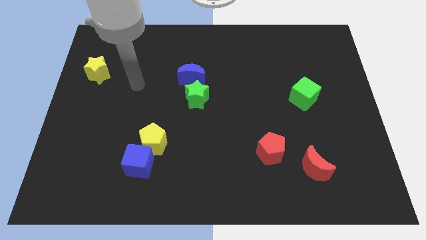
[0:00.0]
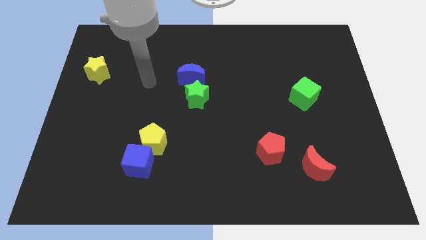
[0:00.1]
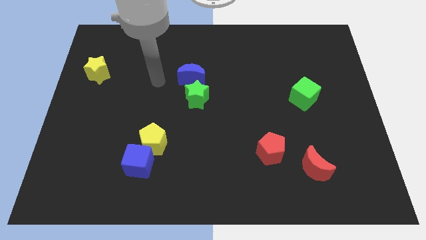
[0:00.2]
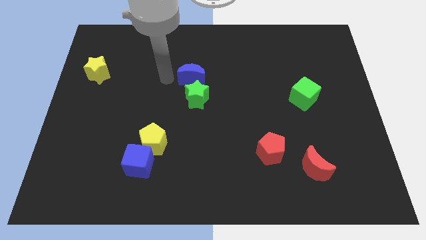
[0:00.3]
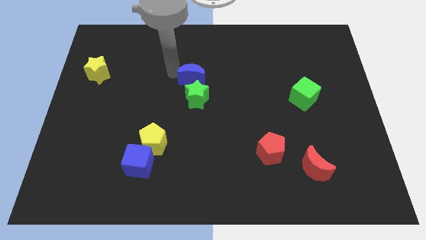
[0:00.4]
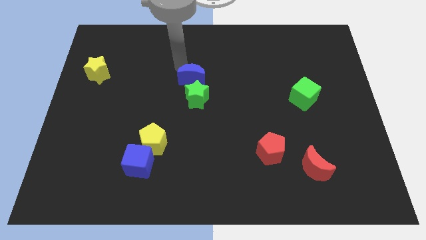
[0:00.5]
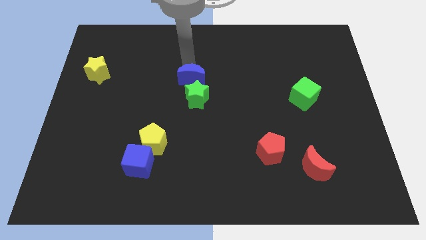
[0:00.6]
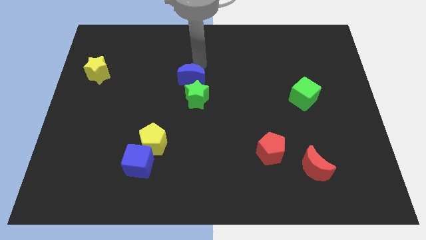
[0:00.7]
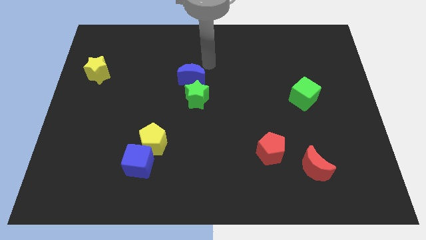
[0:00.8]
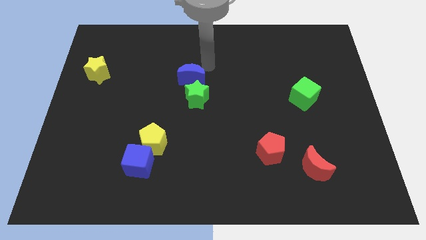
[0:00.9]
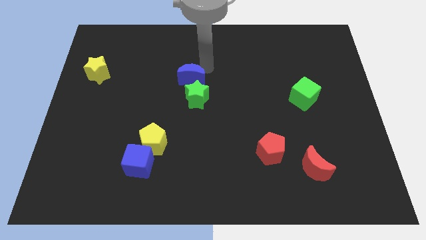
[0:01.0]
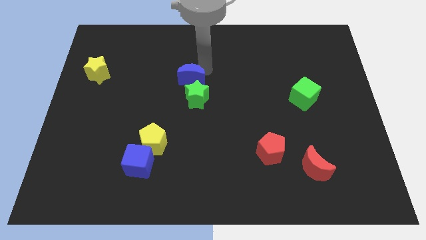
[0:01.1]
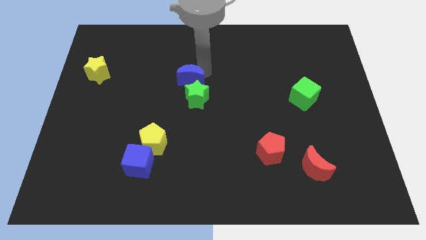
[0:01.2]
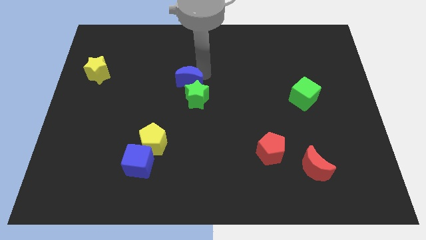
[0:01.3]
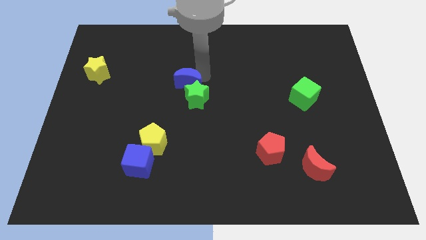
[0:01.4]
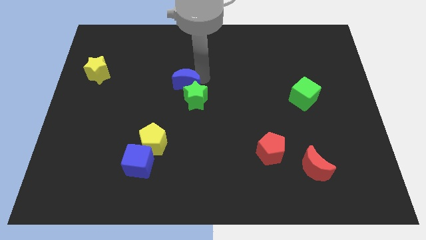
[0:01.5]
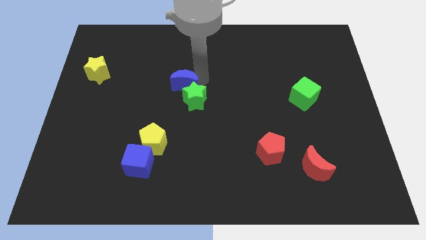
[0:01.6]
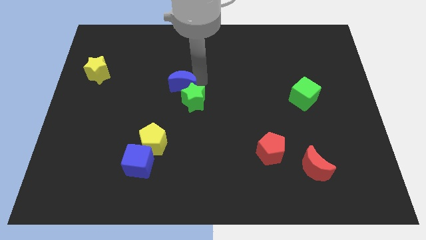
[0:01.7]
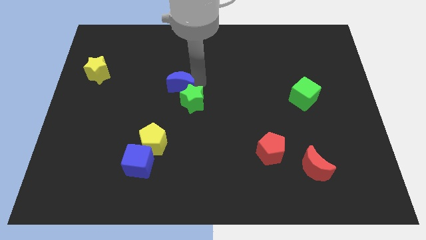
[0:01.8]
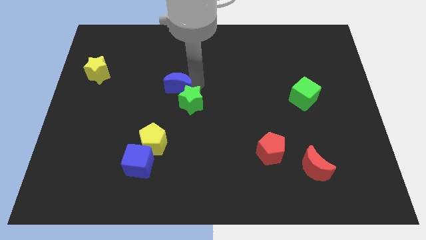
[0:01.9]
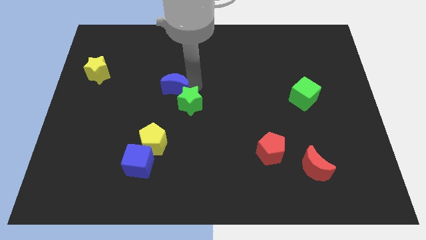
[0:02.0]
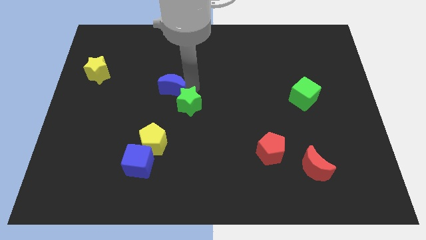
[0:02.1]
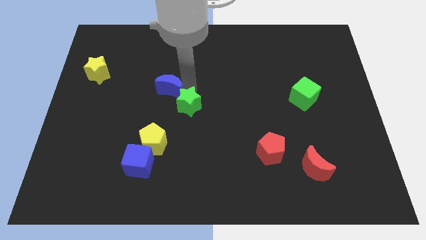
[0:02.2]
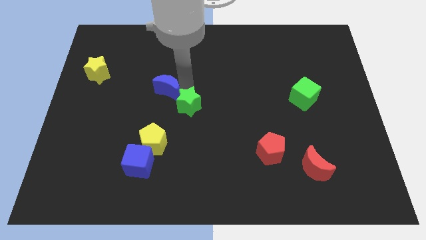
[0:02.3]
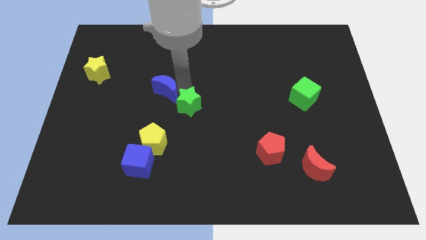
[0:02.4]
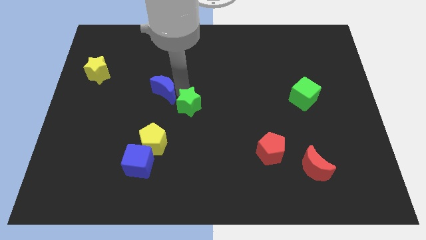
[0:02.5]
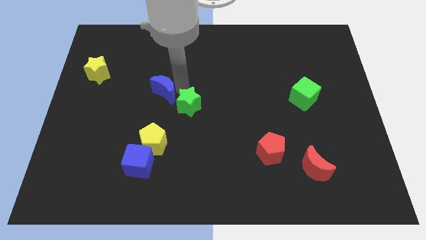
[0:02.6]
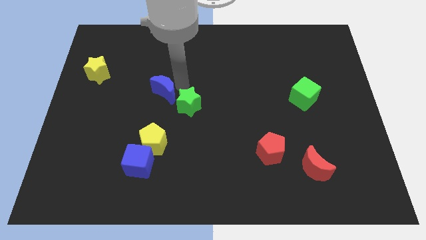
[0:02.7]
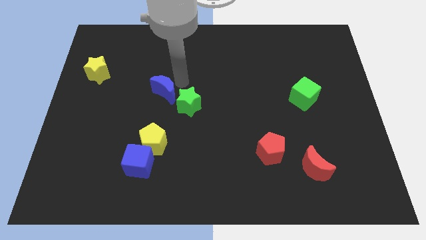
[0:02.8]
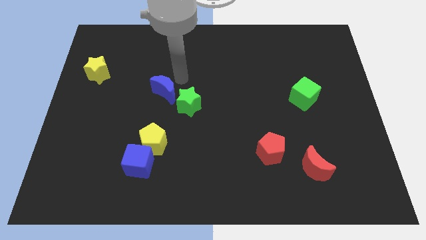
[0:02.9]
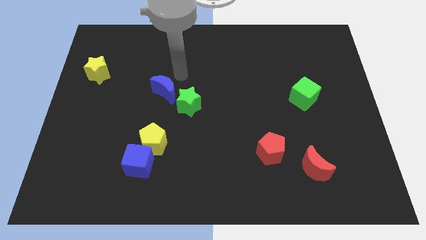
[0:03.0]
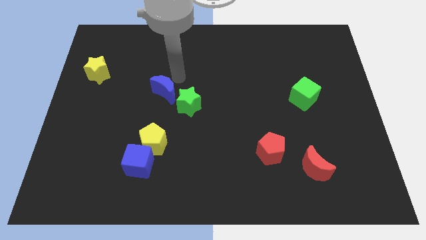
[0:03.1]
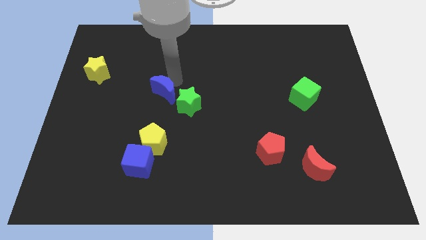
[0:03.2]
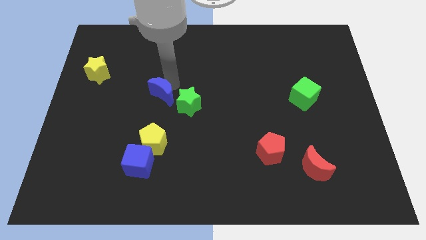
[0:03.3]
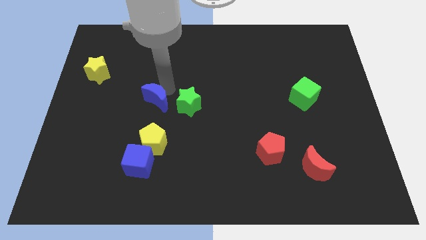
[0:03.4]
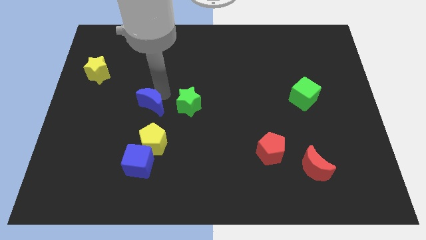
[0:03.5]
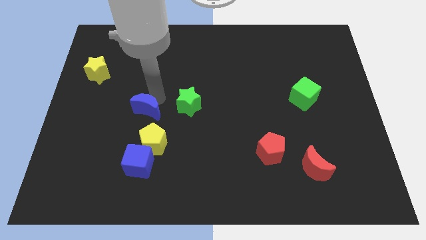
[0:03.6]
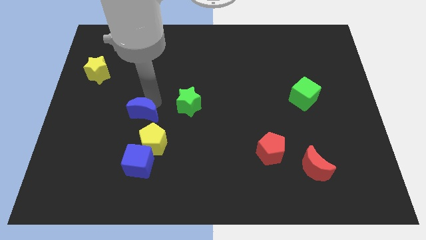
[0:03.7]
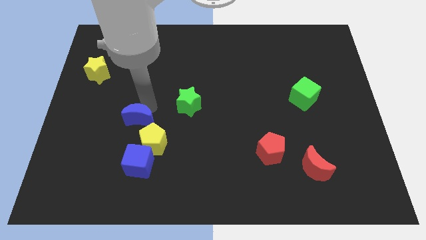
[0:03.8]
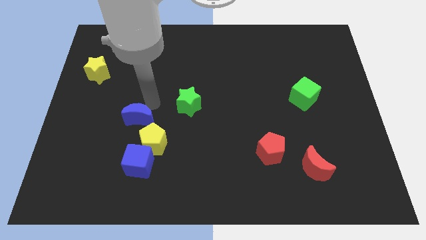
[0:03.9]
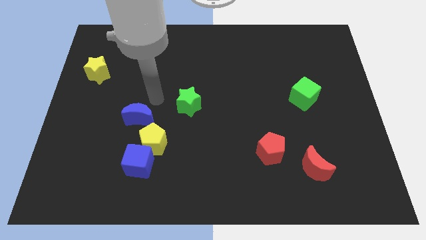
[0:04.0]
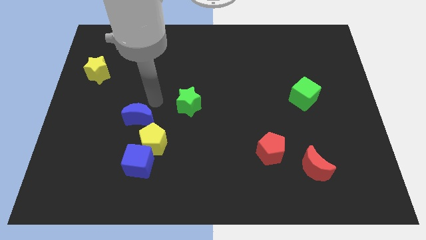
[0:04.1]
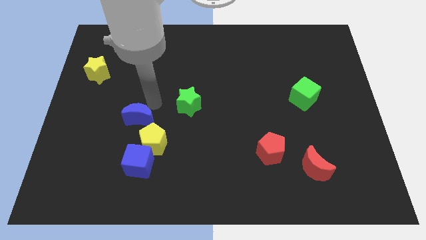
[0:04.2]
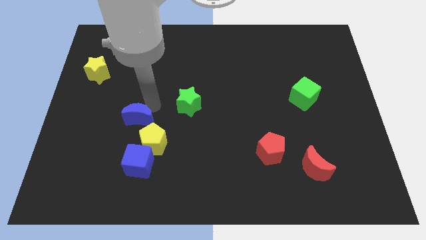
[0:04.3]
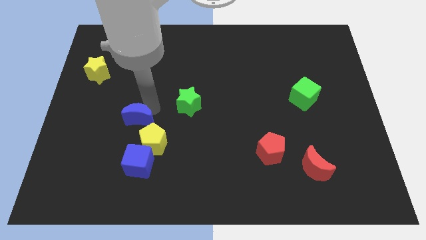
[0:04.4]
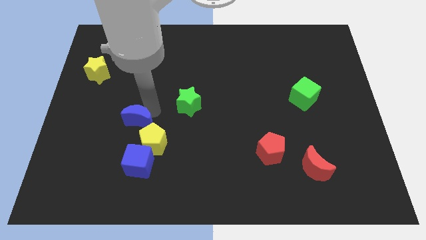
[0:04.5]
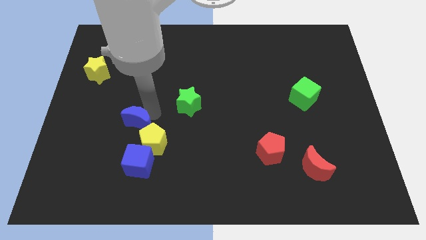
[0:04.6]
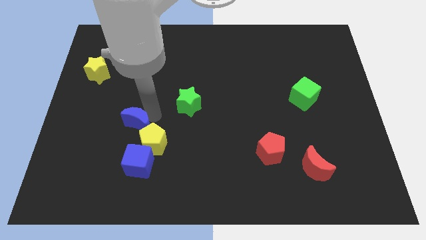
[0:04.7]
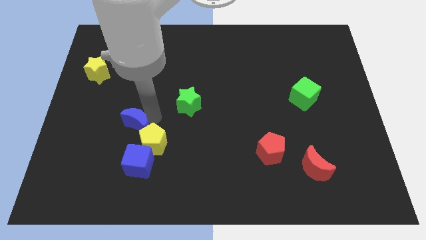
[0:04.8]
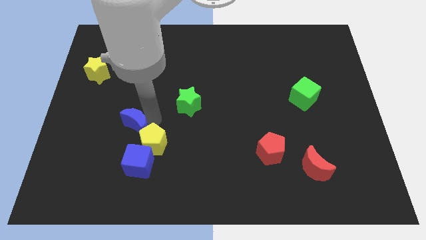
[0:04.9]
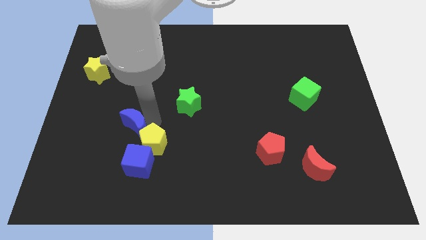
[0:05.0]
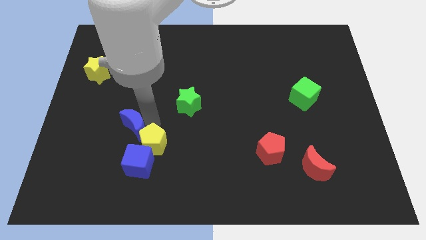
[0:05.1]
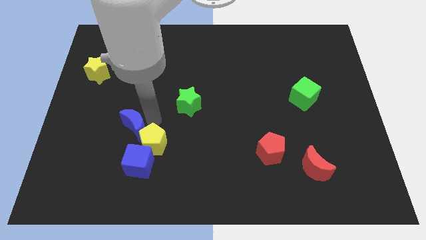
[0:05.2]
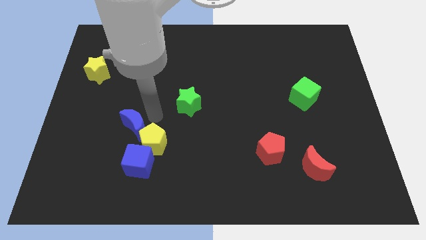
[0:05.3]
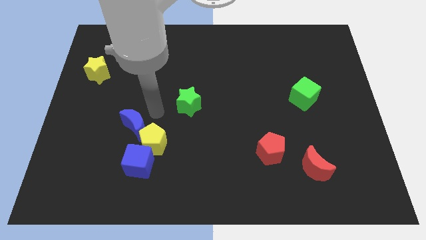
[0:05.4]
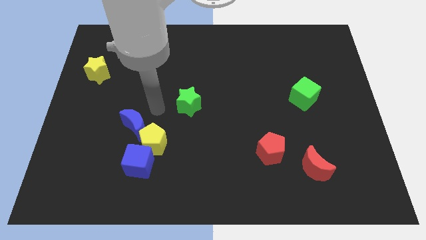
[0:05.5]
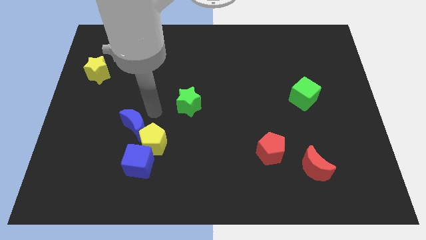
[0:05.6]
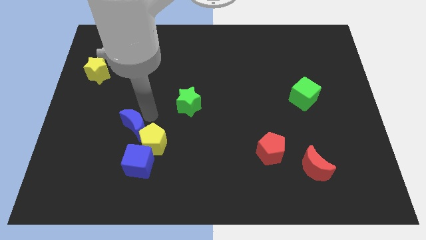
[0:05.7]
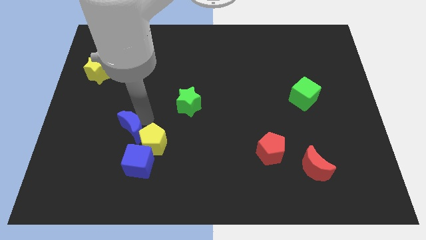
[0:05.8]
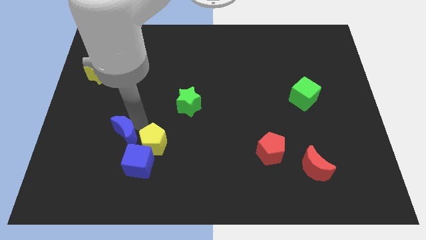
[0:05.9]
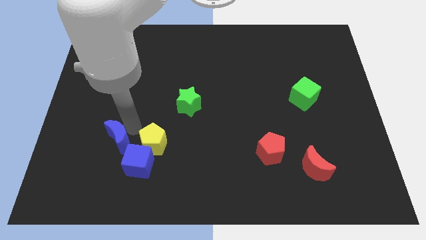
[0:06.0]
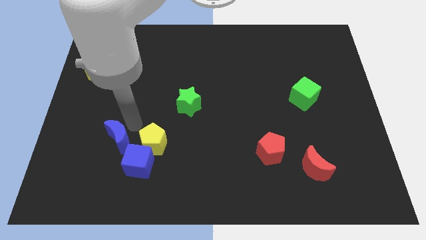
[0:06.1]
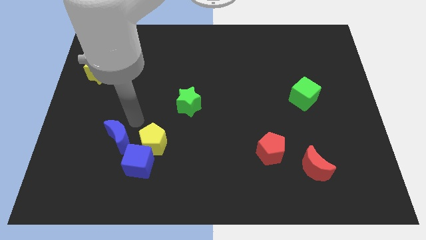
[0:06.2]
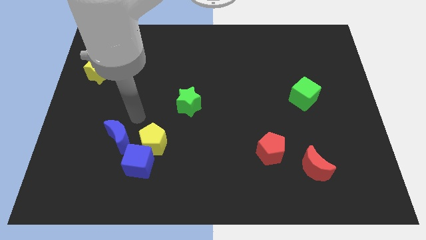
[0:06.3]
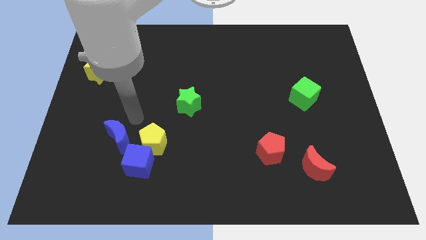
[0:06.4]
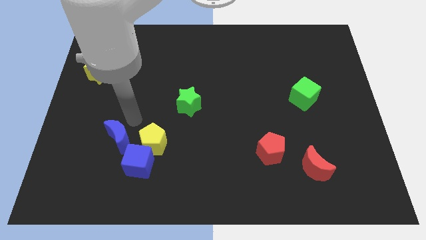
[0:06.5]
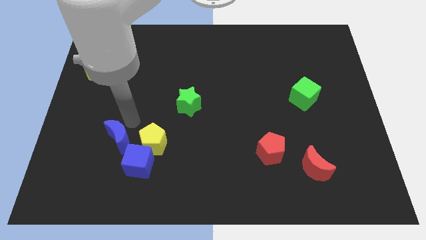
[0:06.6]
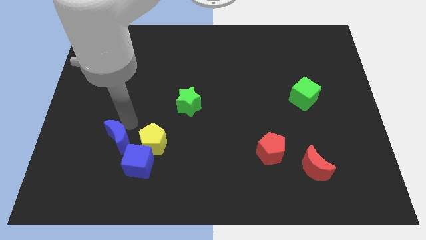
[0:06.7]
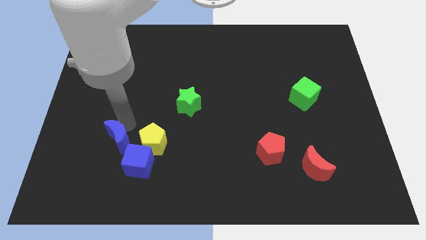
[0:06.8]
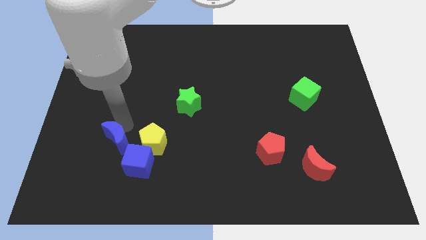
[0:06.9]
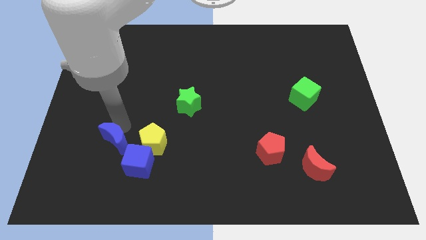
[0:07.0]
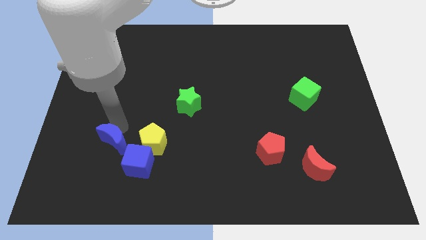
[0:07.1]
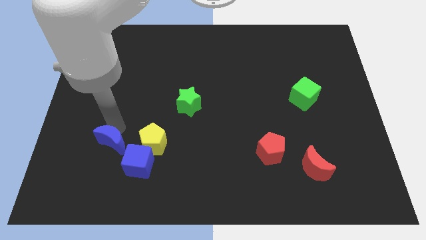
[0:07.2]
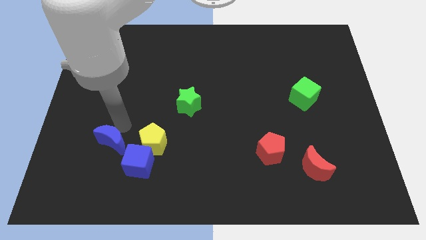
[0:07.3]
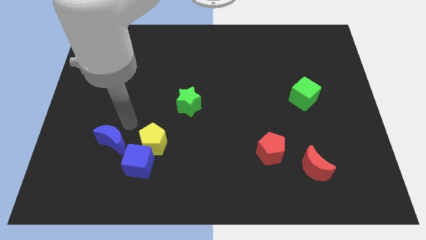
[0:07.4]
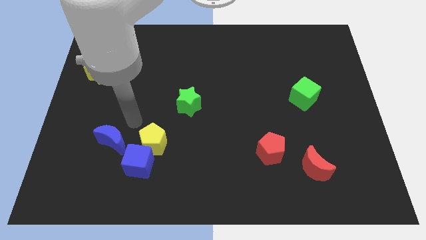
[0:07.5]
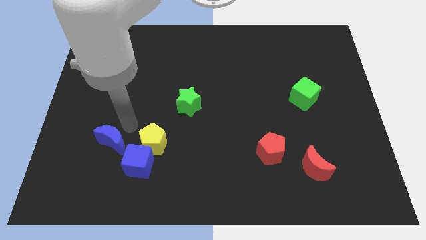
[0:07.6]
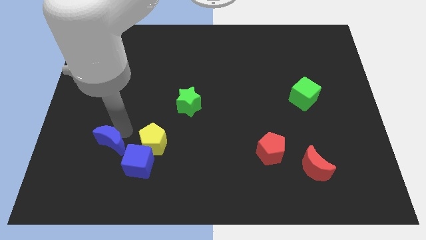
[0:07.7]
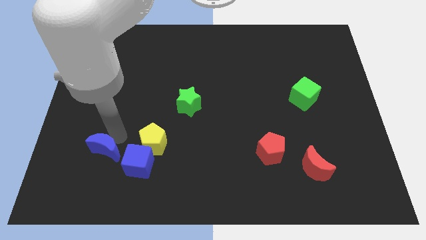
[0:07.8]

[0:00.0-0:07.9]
push the blue moon to the left side of the blue cube

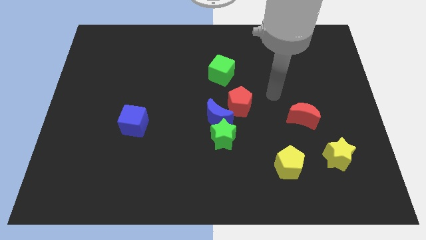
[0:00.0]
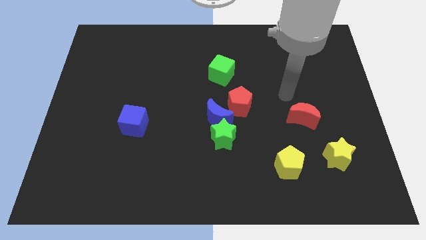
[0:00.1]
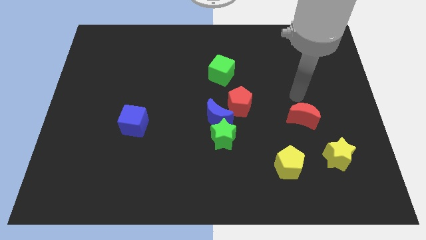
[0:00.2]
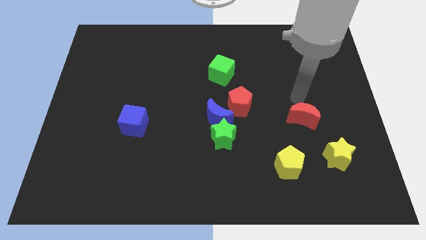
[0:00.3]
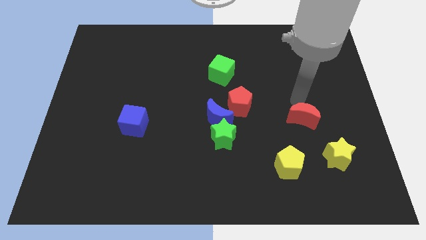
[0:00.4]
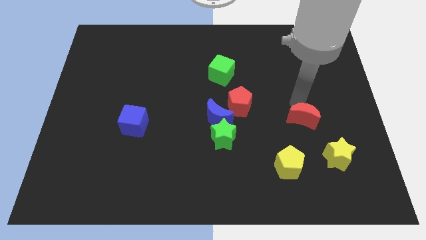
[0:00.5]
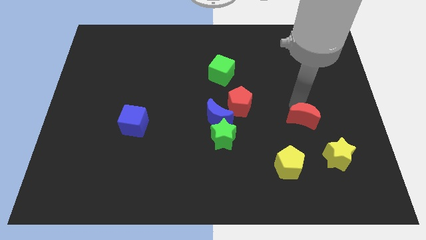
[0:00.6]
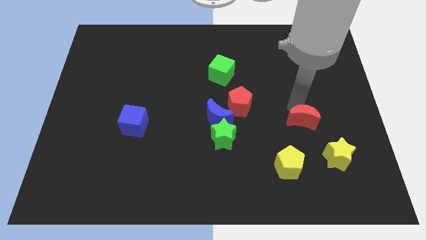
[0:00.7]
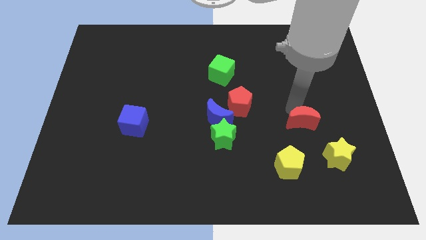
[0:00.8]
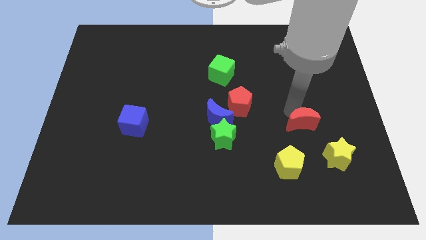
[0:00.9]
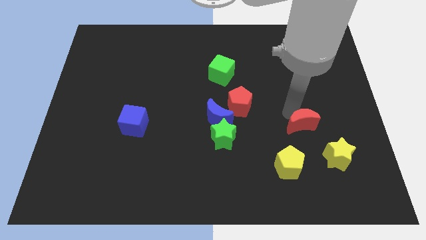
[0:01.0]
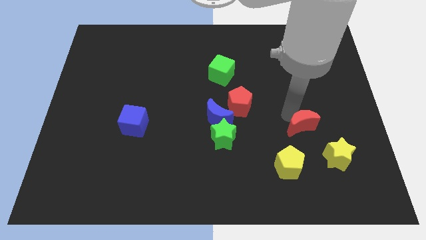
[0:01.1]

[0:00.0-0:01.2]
put the red moon diagonally up and to the right of the yellow pentagon
